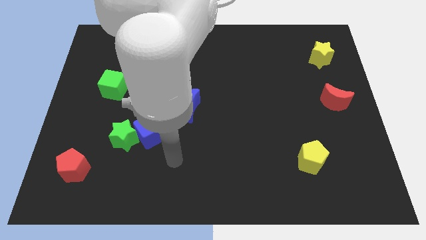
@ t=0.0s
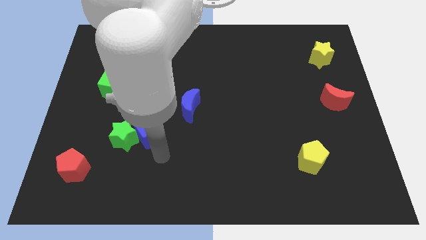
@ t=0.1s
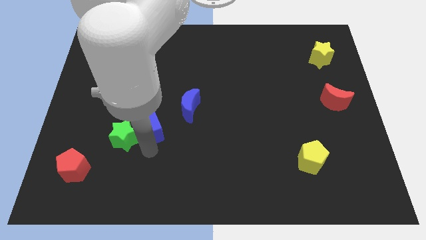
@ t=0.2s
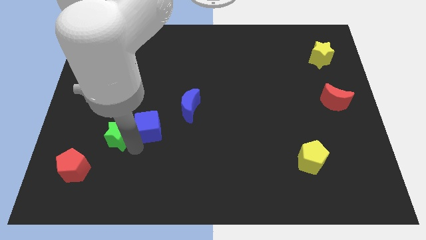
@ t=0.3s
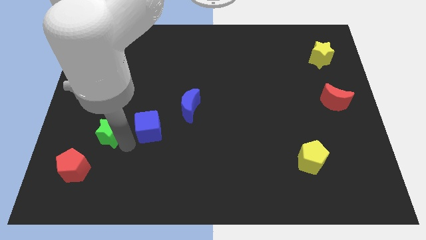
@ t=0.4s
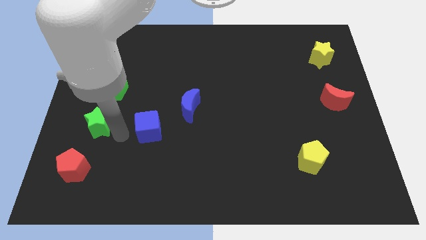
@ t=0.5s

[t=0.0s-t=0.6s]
pull the blue cube apart from the green star

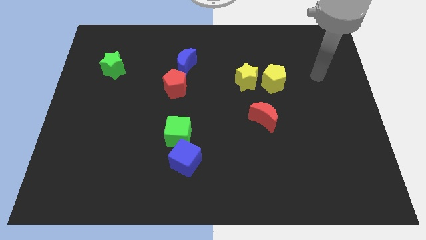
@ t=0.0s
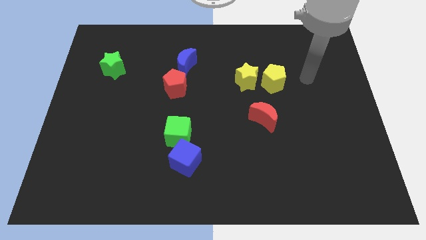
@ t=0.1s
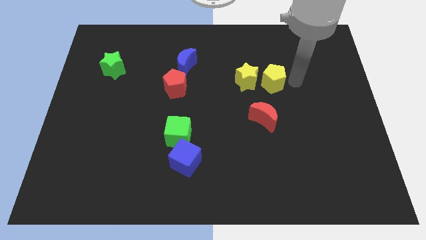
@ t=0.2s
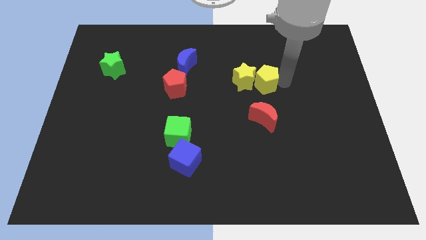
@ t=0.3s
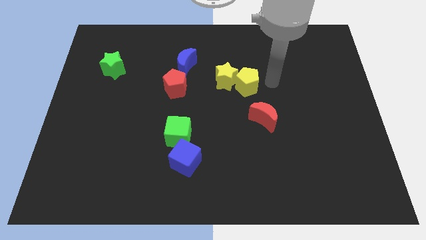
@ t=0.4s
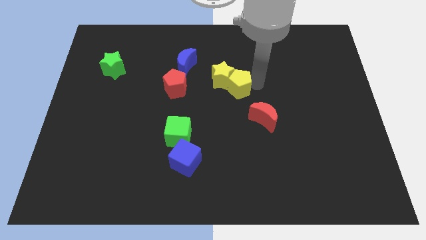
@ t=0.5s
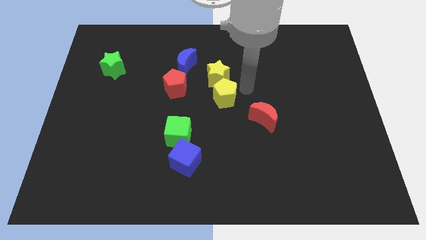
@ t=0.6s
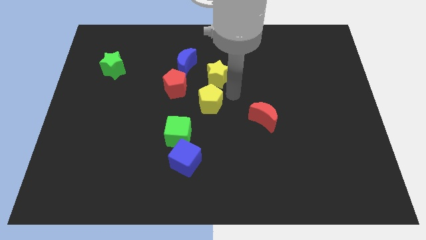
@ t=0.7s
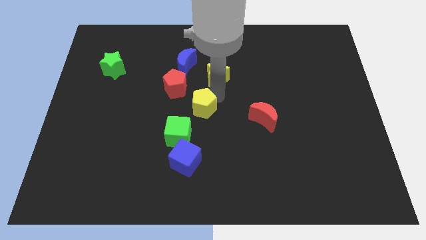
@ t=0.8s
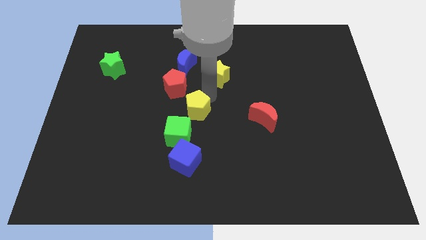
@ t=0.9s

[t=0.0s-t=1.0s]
separate the yellow star from the yellow pentagon

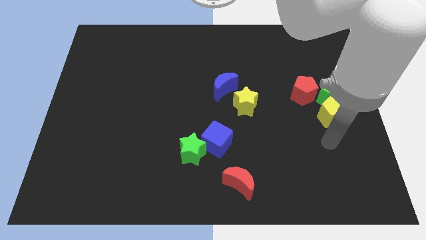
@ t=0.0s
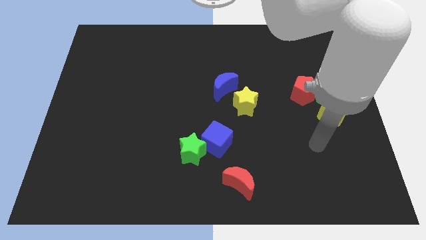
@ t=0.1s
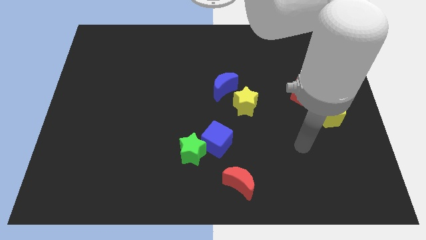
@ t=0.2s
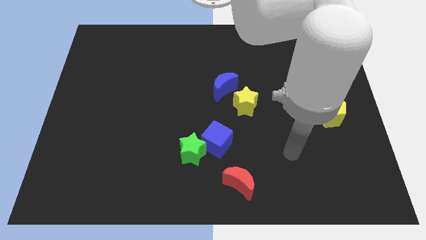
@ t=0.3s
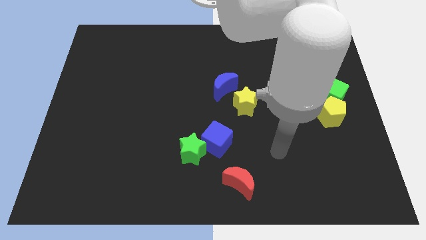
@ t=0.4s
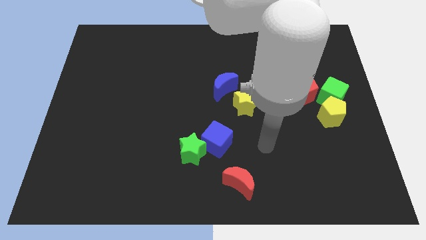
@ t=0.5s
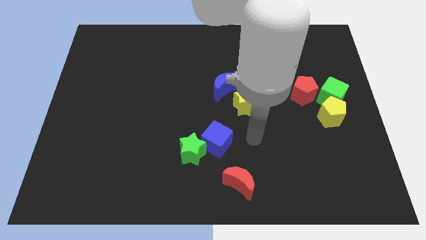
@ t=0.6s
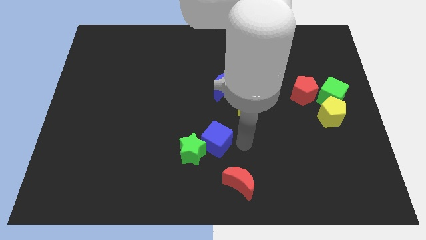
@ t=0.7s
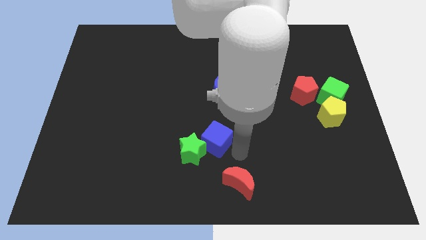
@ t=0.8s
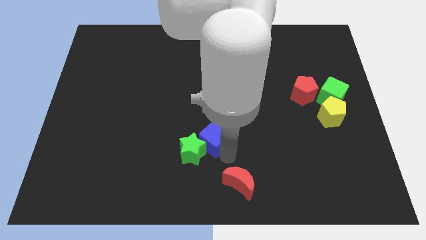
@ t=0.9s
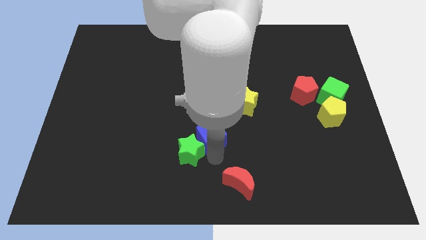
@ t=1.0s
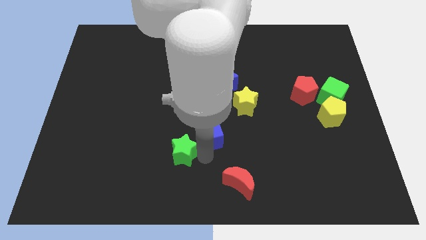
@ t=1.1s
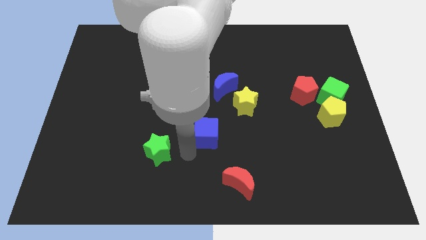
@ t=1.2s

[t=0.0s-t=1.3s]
separate the blue cube from the green star

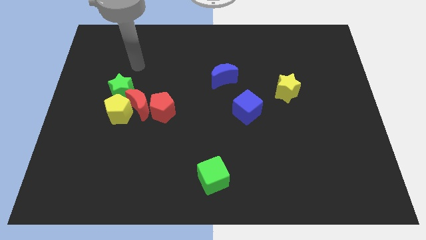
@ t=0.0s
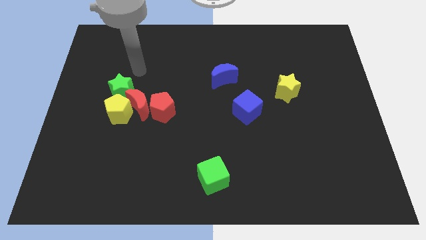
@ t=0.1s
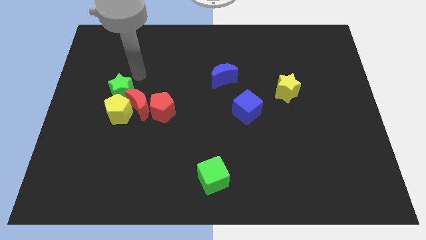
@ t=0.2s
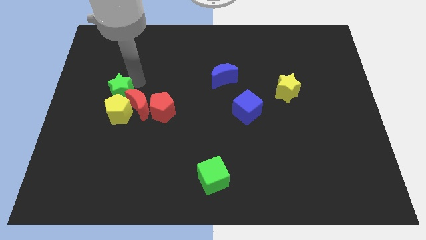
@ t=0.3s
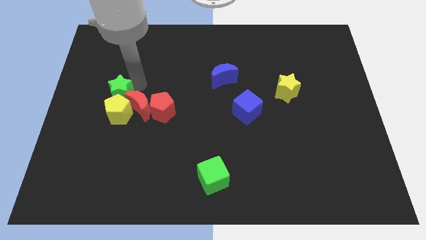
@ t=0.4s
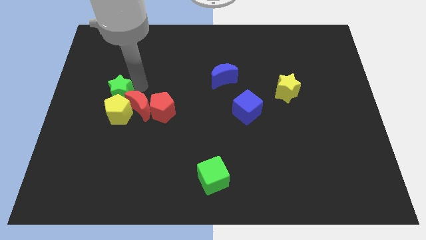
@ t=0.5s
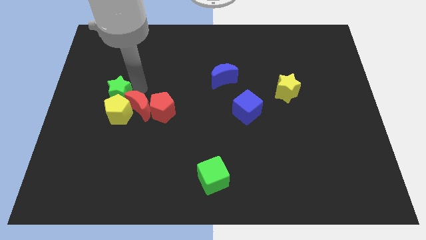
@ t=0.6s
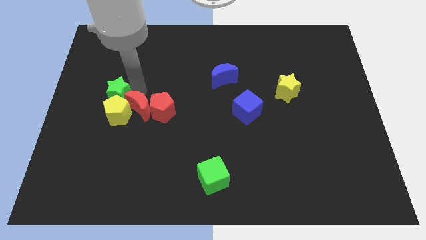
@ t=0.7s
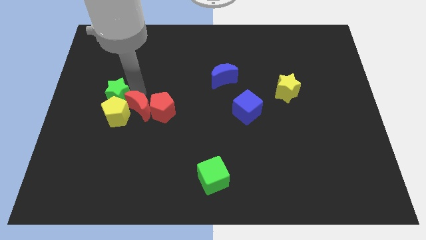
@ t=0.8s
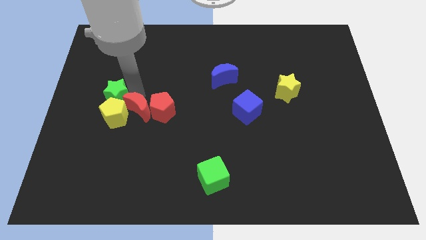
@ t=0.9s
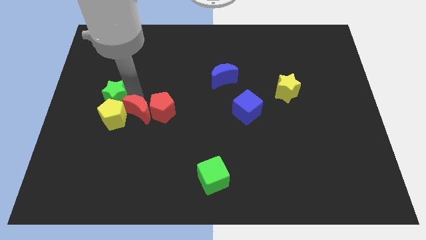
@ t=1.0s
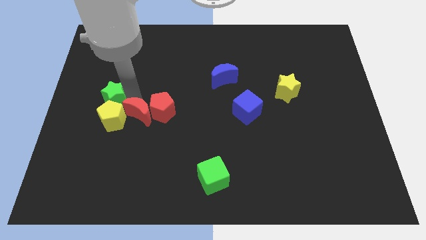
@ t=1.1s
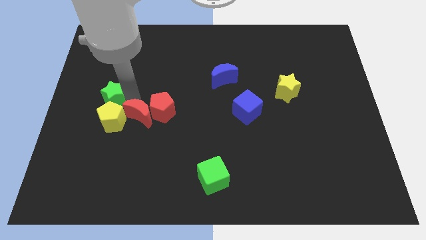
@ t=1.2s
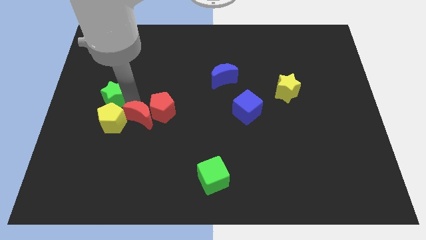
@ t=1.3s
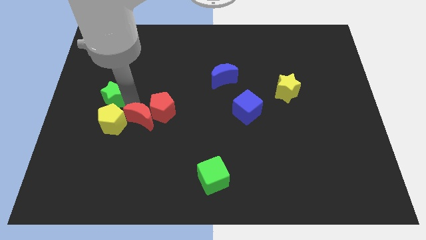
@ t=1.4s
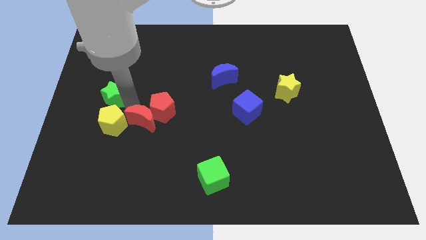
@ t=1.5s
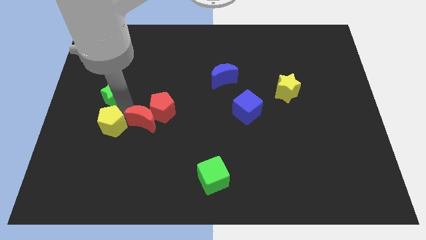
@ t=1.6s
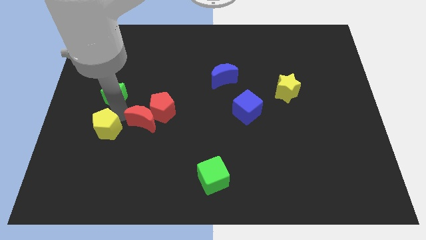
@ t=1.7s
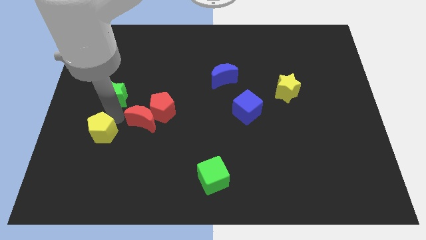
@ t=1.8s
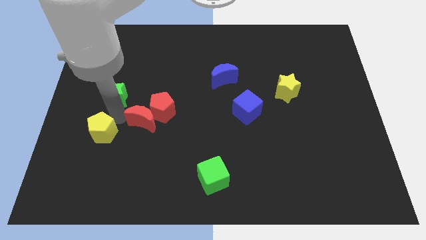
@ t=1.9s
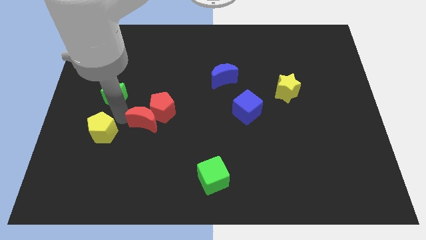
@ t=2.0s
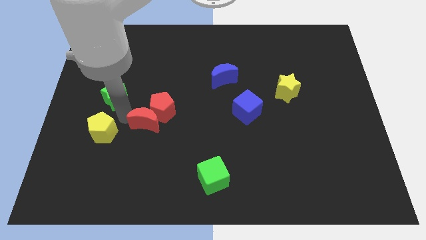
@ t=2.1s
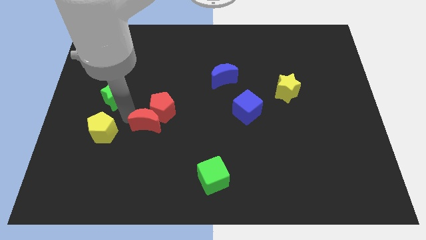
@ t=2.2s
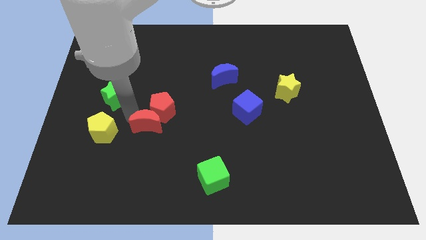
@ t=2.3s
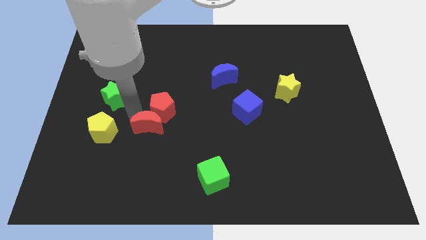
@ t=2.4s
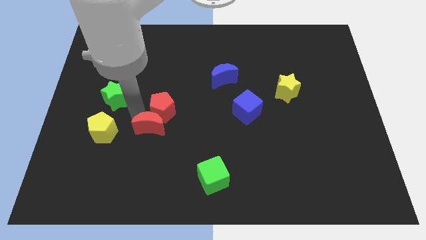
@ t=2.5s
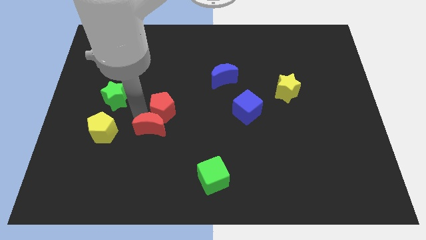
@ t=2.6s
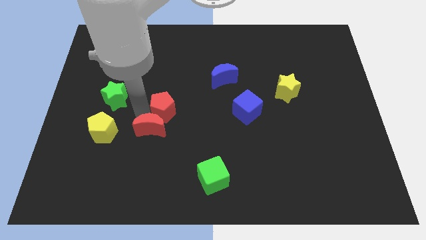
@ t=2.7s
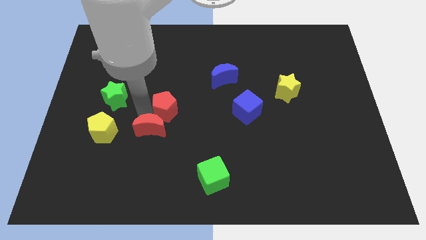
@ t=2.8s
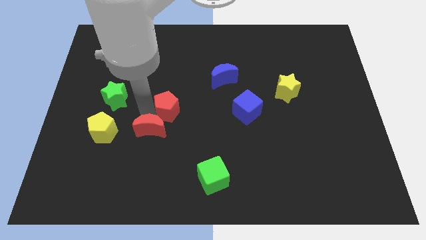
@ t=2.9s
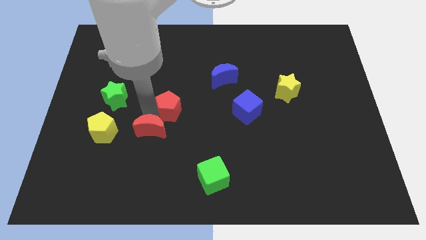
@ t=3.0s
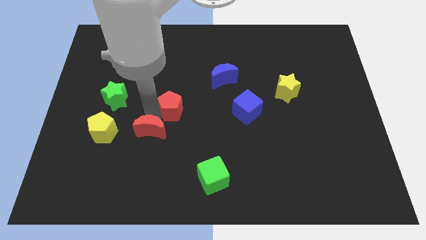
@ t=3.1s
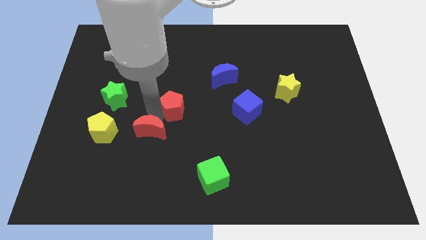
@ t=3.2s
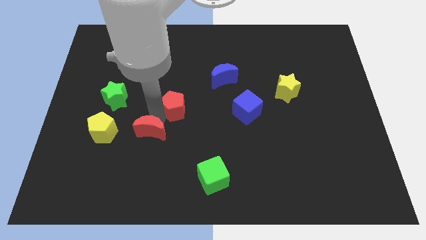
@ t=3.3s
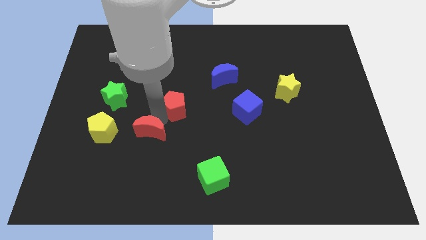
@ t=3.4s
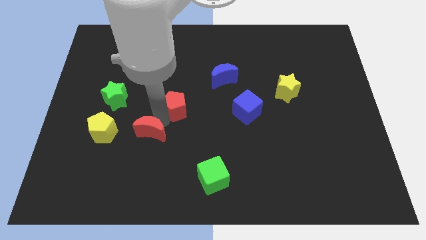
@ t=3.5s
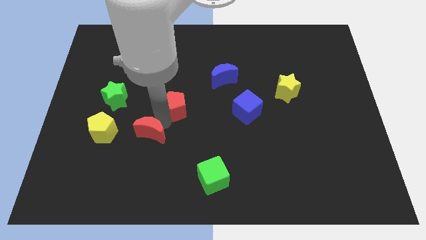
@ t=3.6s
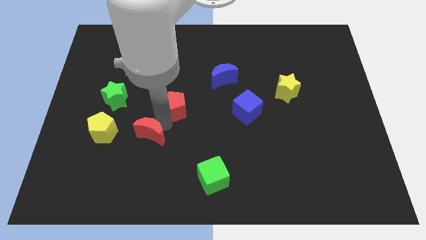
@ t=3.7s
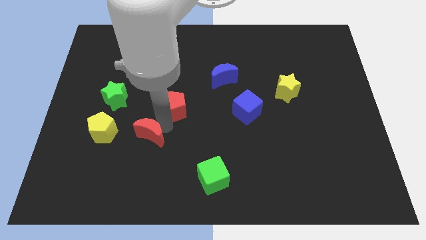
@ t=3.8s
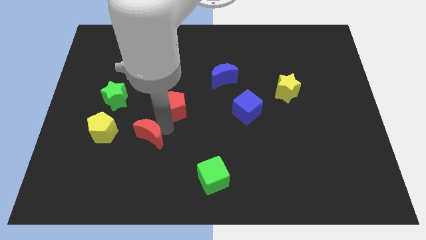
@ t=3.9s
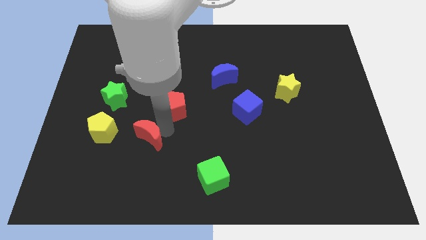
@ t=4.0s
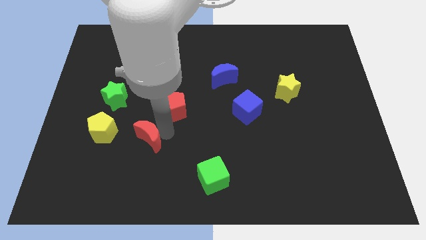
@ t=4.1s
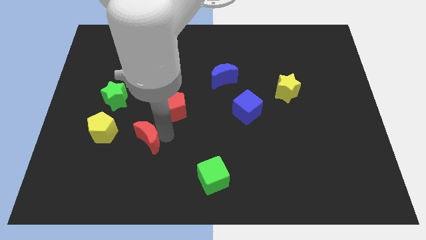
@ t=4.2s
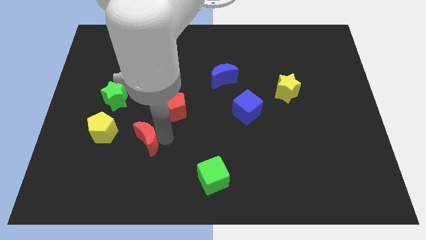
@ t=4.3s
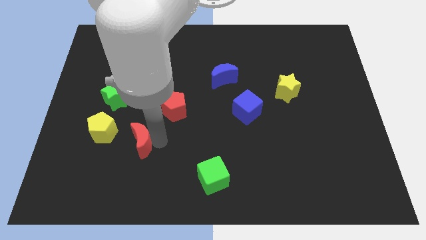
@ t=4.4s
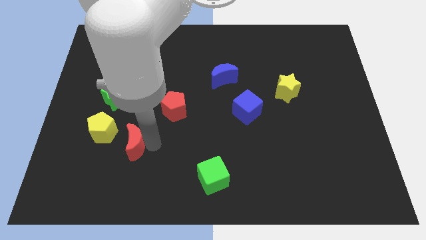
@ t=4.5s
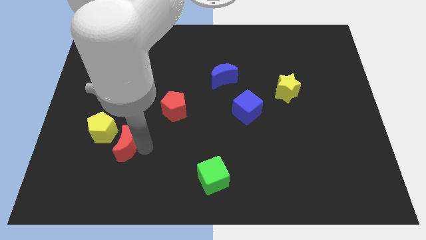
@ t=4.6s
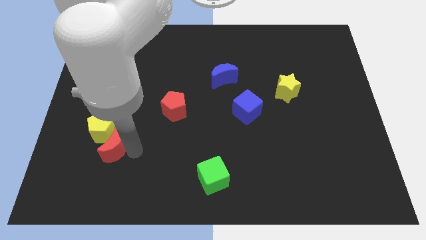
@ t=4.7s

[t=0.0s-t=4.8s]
move the red moon away from the group

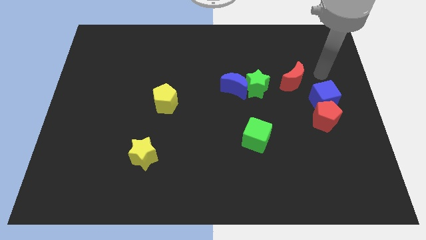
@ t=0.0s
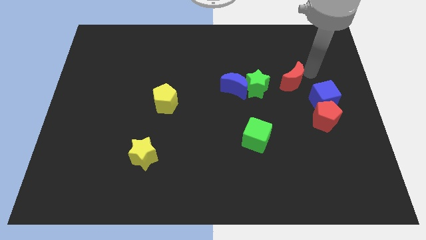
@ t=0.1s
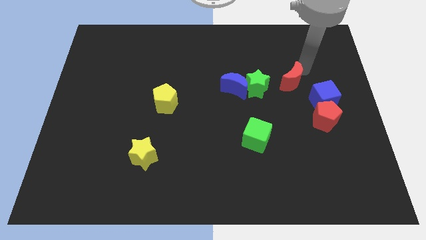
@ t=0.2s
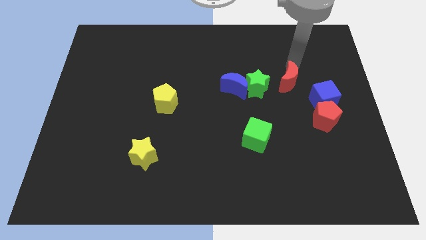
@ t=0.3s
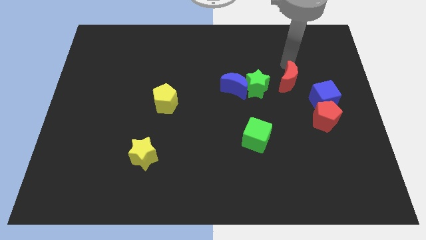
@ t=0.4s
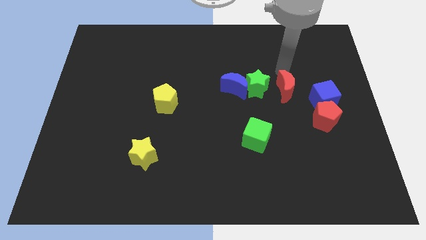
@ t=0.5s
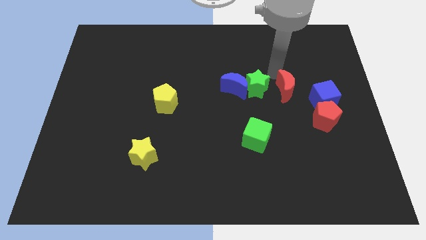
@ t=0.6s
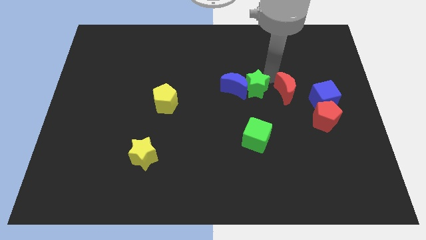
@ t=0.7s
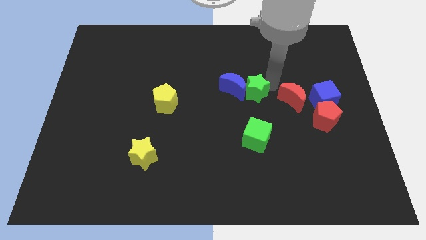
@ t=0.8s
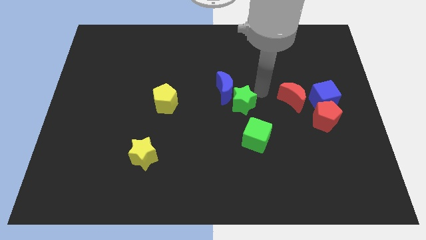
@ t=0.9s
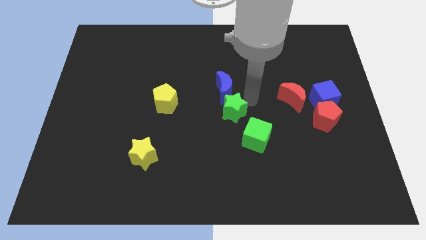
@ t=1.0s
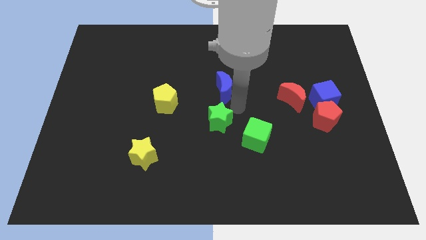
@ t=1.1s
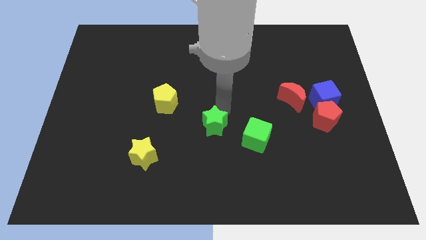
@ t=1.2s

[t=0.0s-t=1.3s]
pull the blue moon apart from the green star

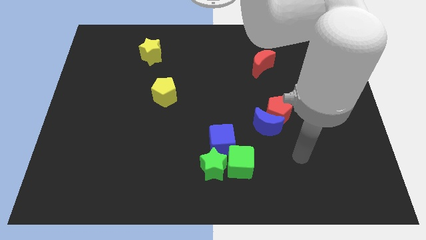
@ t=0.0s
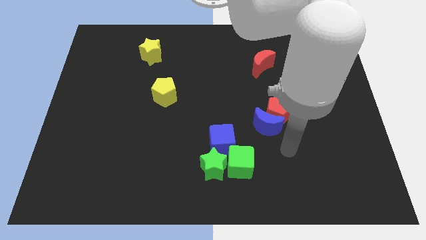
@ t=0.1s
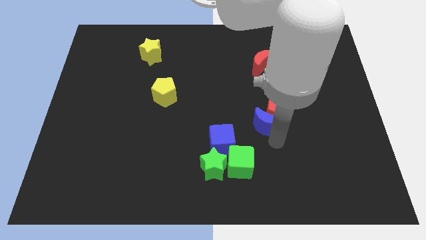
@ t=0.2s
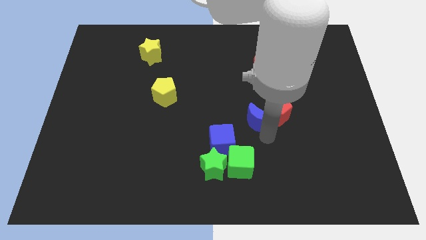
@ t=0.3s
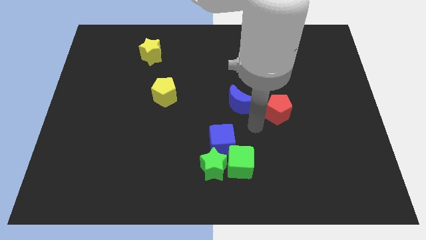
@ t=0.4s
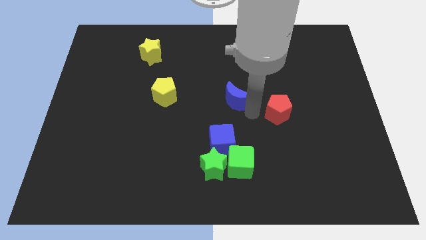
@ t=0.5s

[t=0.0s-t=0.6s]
separate the red pentagon from the blue moon
